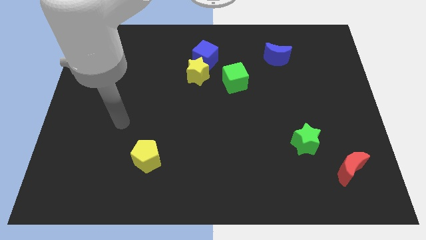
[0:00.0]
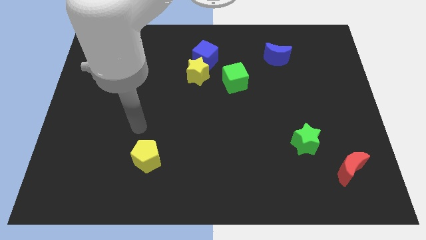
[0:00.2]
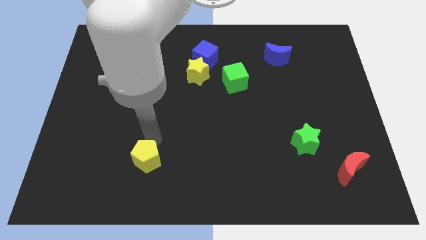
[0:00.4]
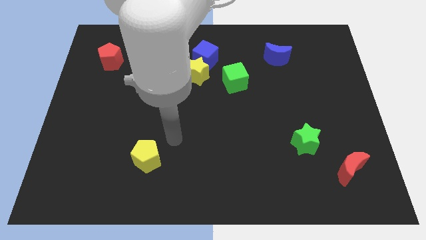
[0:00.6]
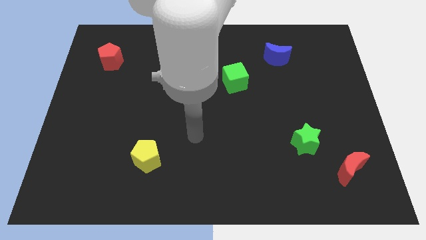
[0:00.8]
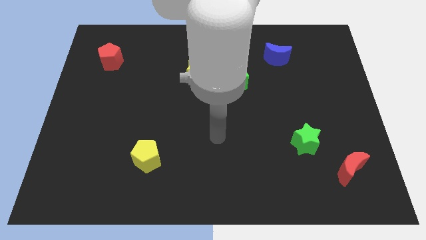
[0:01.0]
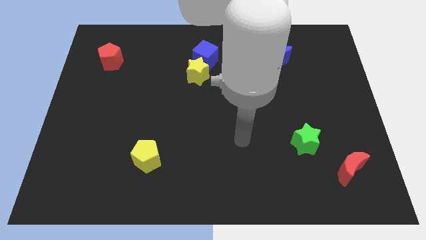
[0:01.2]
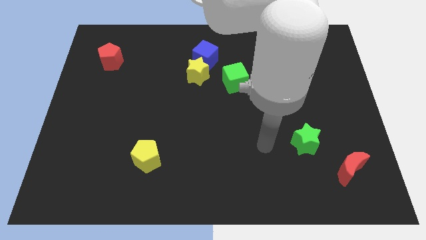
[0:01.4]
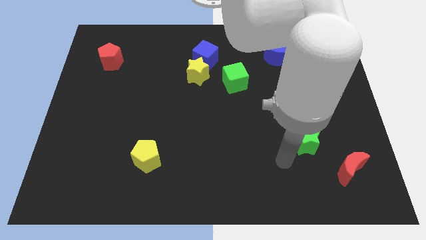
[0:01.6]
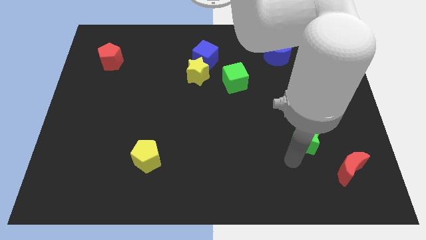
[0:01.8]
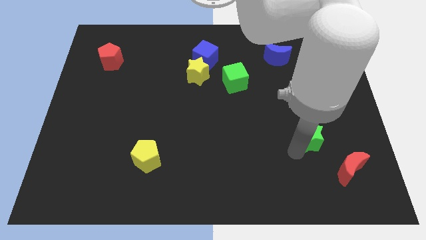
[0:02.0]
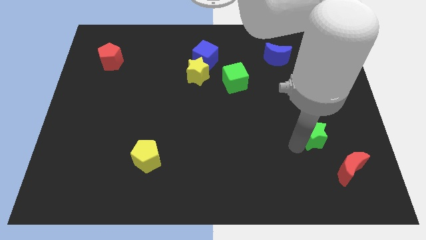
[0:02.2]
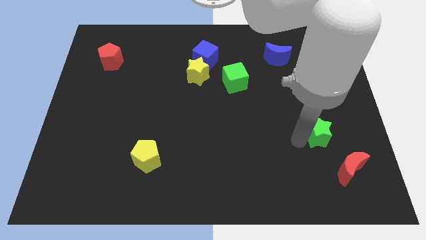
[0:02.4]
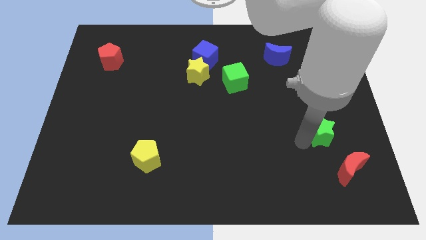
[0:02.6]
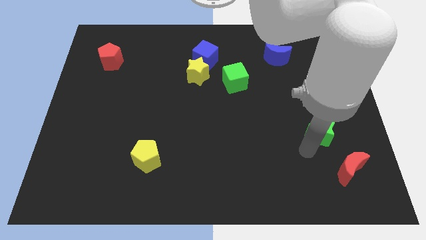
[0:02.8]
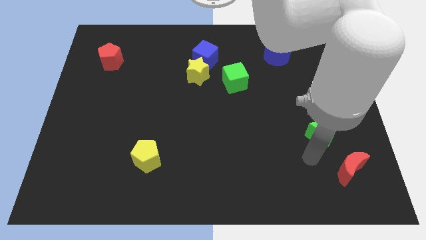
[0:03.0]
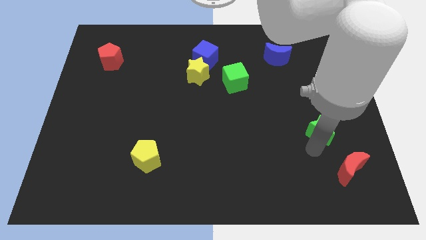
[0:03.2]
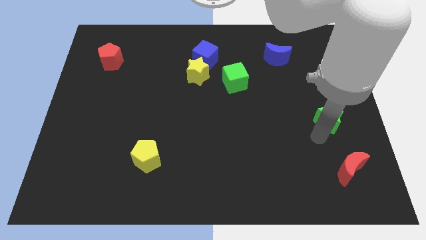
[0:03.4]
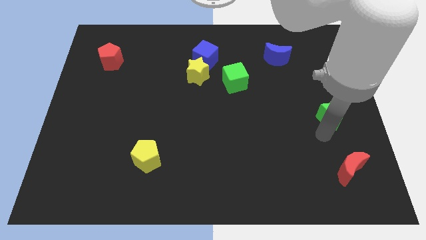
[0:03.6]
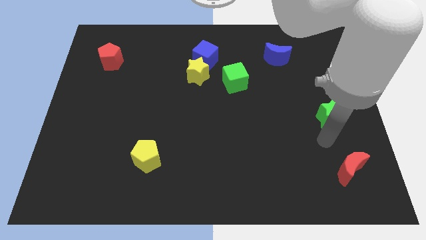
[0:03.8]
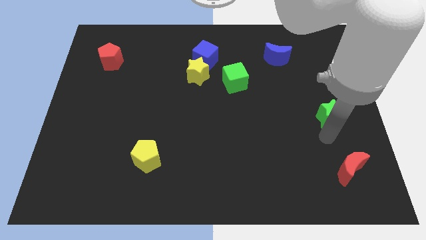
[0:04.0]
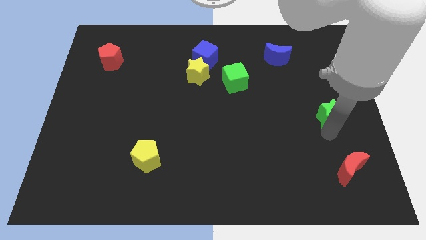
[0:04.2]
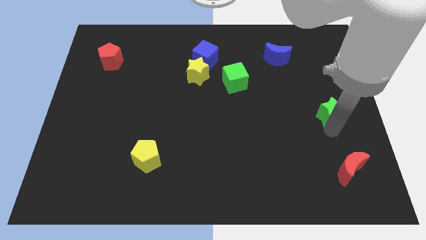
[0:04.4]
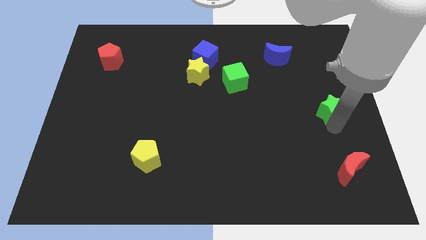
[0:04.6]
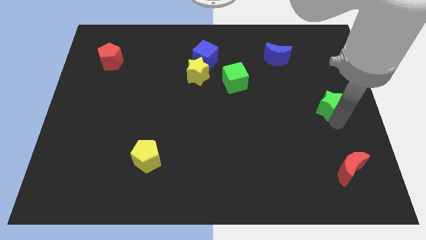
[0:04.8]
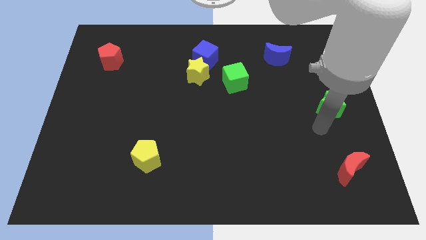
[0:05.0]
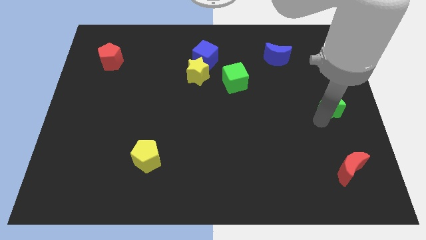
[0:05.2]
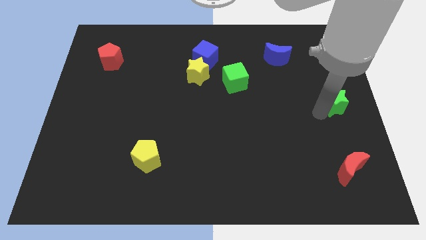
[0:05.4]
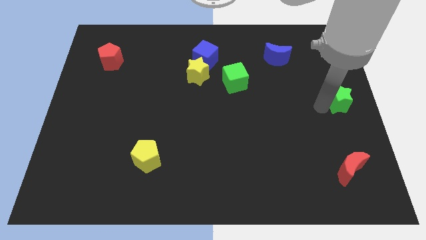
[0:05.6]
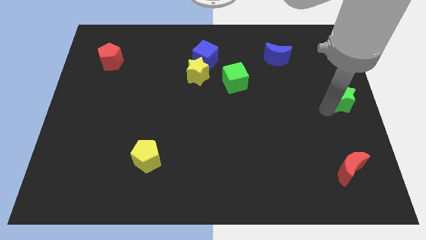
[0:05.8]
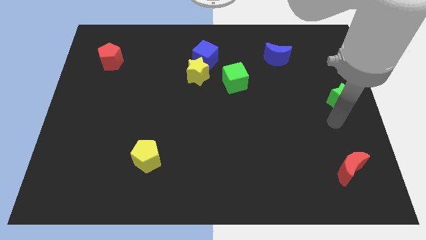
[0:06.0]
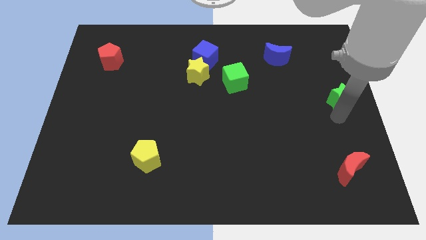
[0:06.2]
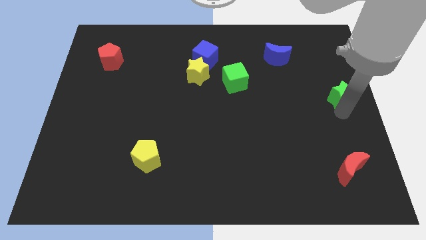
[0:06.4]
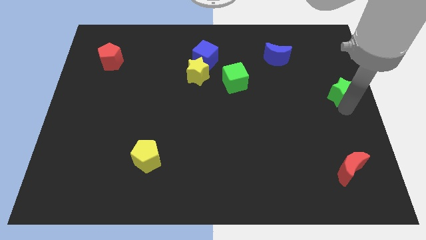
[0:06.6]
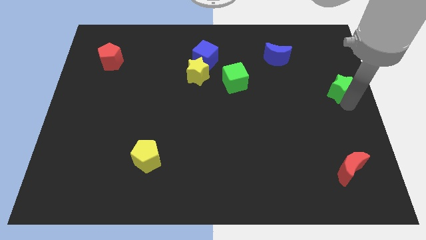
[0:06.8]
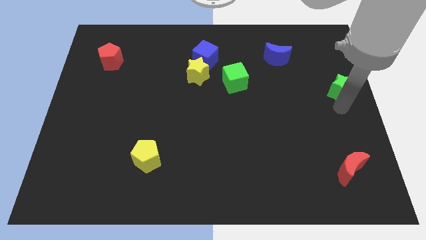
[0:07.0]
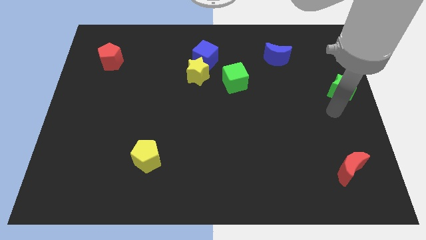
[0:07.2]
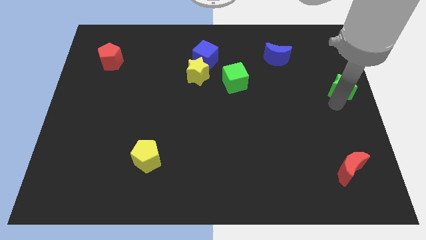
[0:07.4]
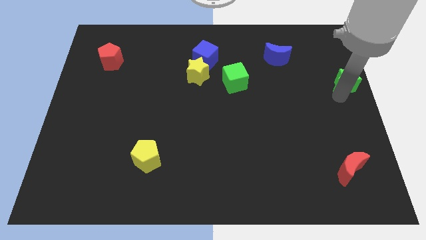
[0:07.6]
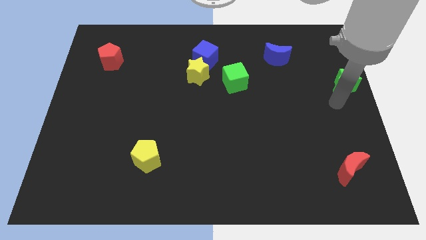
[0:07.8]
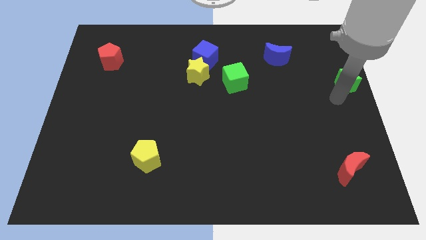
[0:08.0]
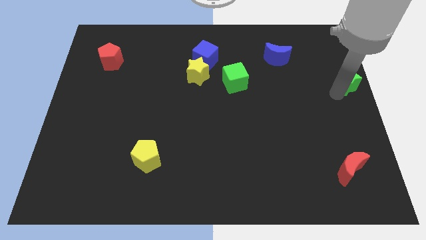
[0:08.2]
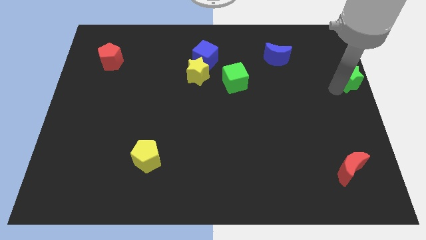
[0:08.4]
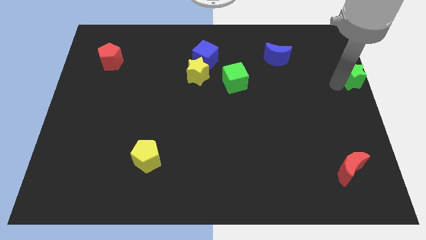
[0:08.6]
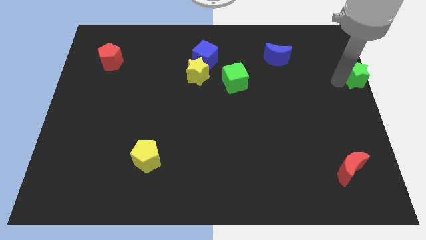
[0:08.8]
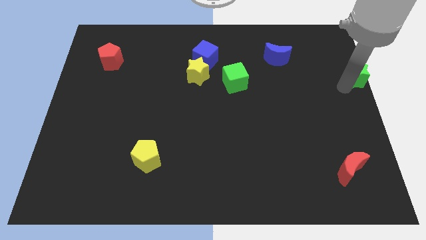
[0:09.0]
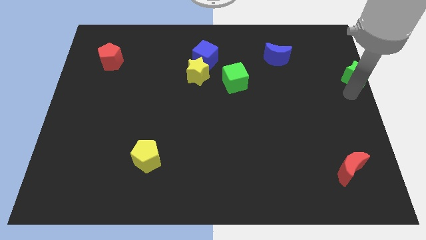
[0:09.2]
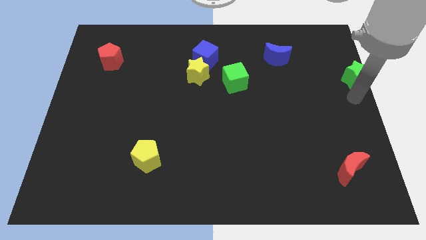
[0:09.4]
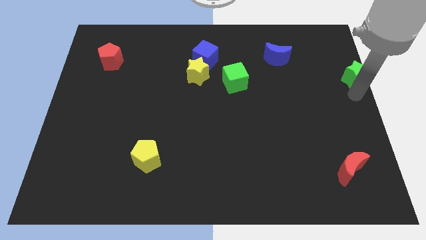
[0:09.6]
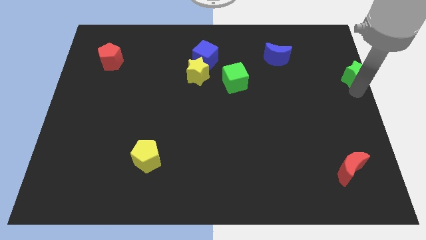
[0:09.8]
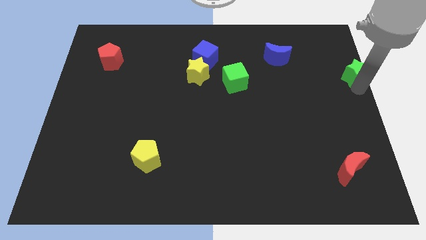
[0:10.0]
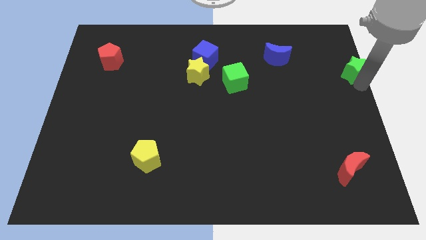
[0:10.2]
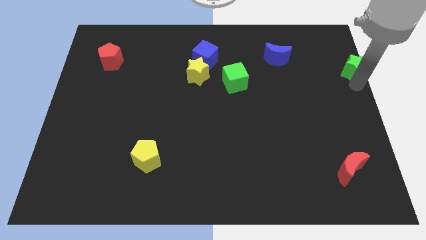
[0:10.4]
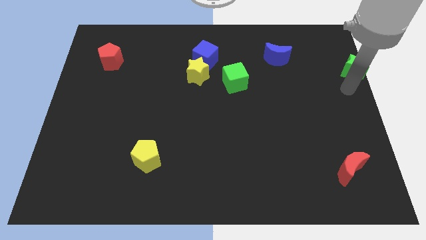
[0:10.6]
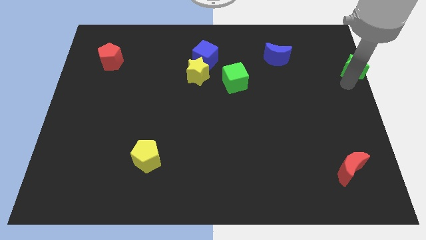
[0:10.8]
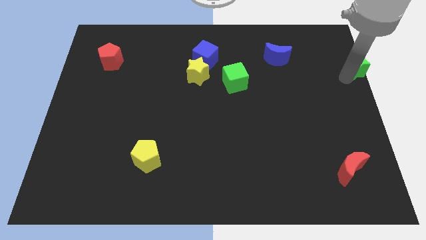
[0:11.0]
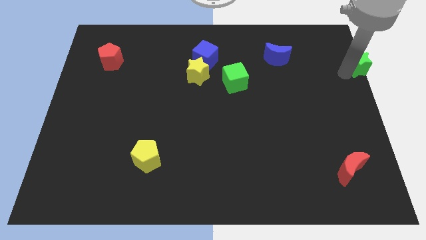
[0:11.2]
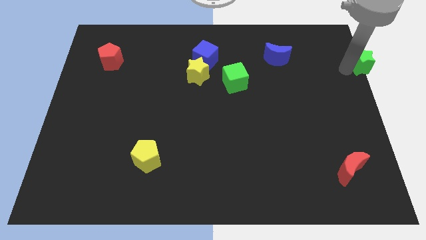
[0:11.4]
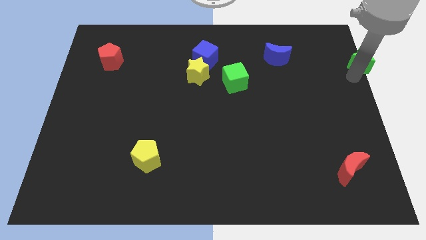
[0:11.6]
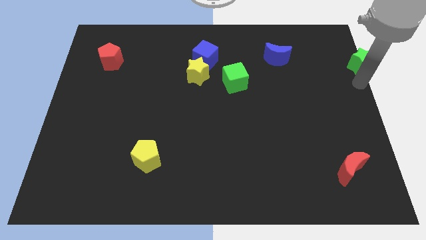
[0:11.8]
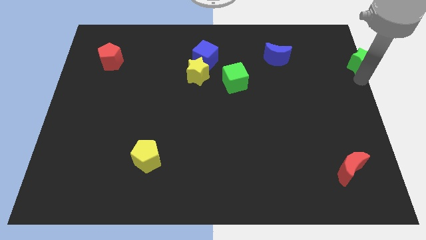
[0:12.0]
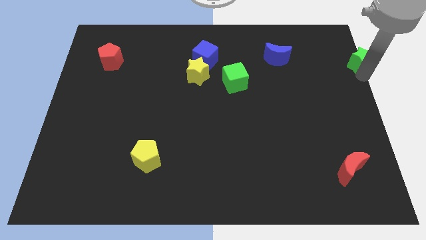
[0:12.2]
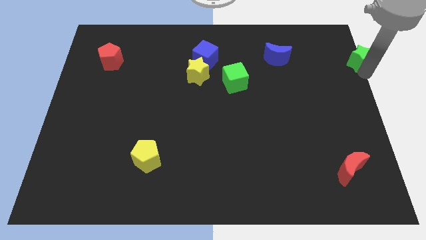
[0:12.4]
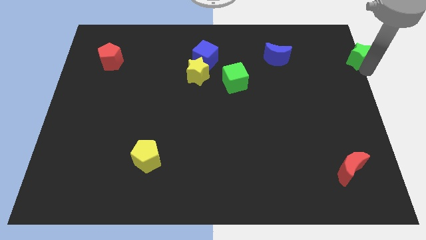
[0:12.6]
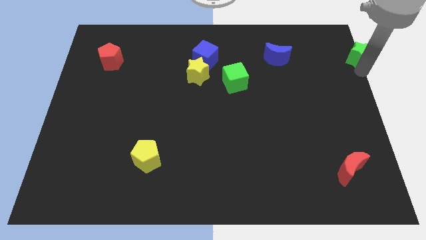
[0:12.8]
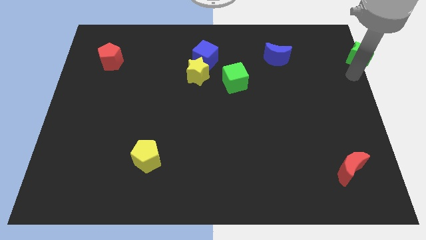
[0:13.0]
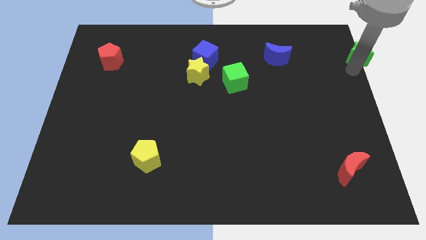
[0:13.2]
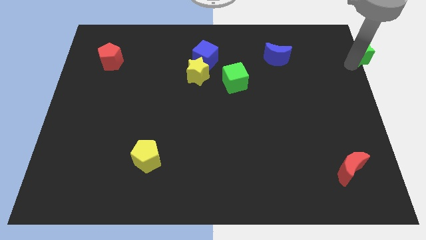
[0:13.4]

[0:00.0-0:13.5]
put the green star to the top right
